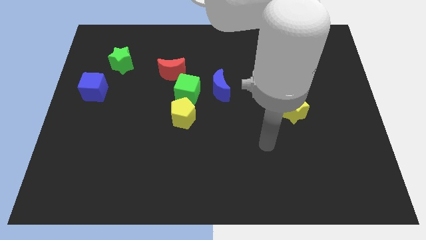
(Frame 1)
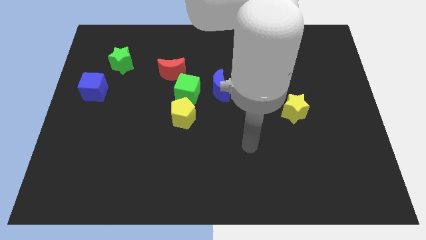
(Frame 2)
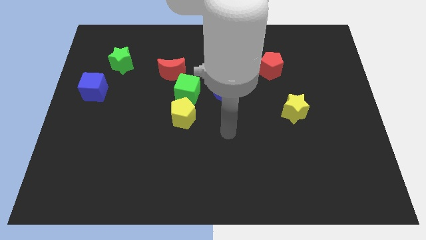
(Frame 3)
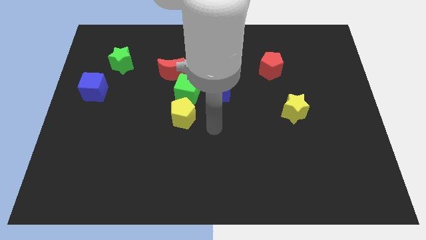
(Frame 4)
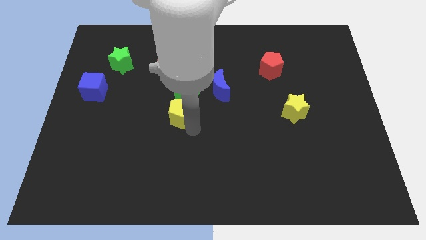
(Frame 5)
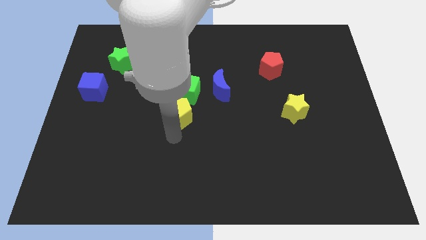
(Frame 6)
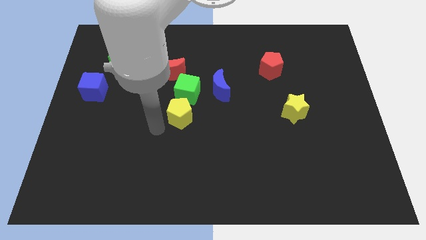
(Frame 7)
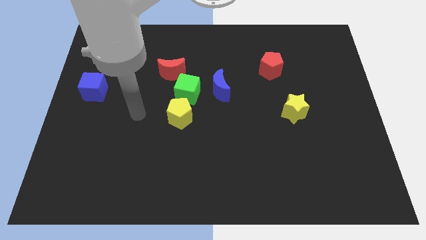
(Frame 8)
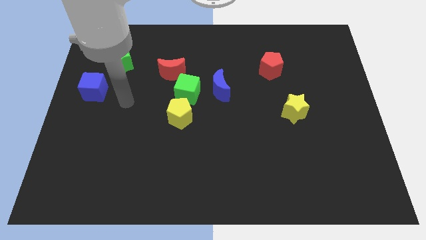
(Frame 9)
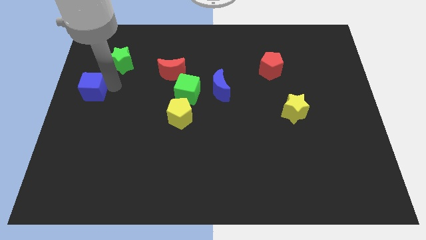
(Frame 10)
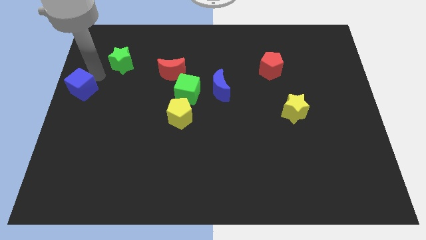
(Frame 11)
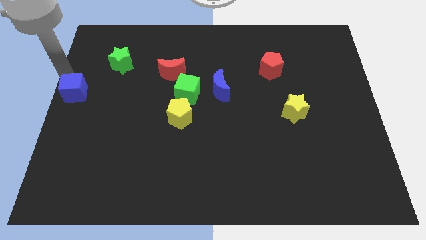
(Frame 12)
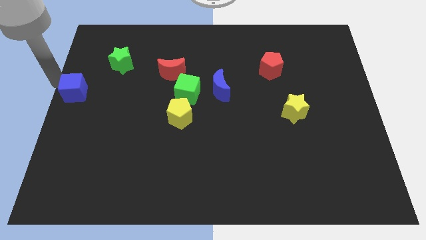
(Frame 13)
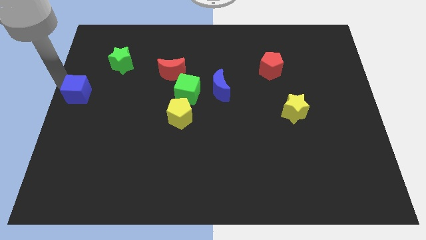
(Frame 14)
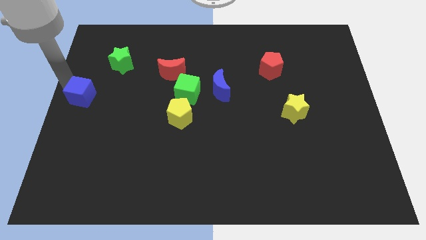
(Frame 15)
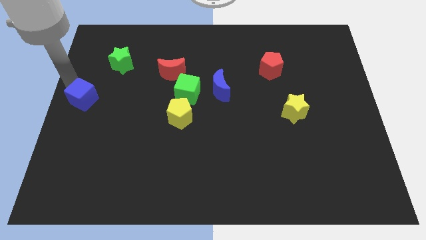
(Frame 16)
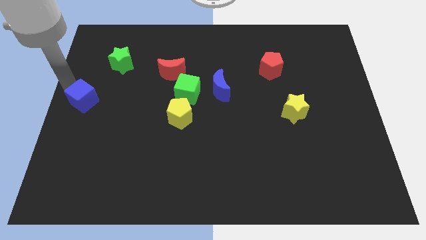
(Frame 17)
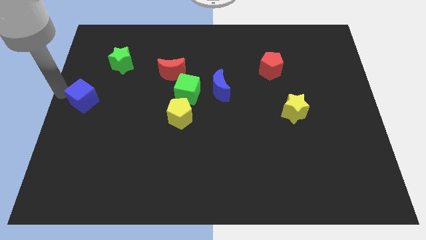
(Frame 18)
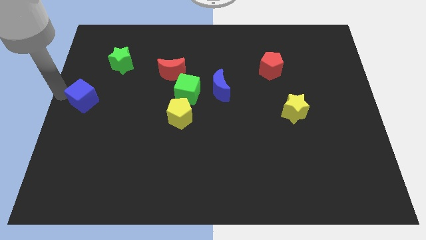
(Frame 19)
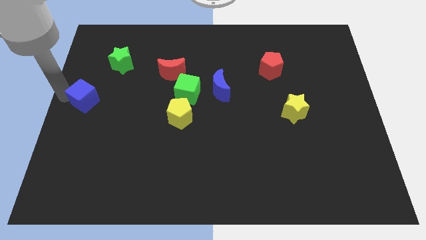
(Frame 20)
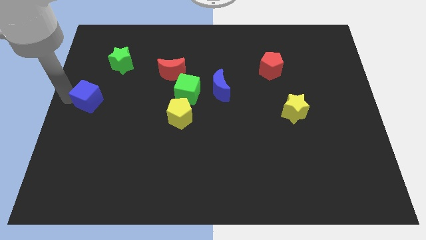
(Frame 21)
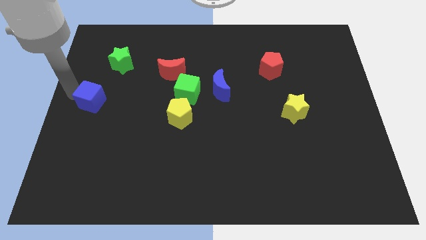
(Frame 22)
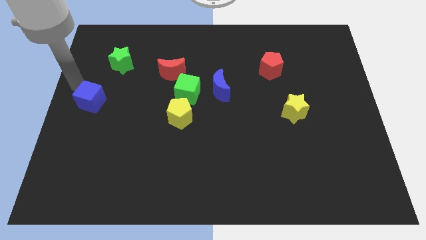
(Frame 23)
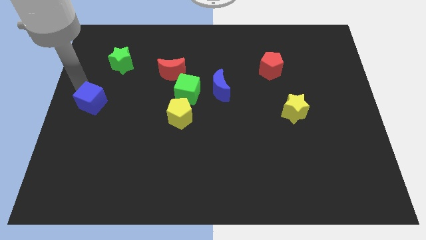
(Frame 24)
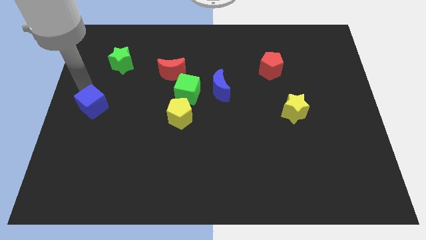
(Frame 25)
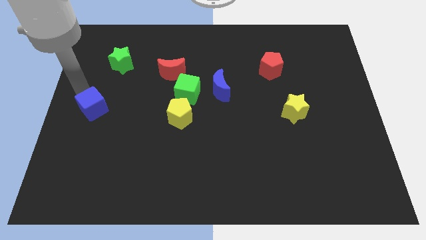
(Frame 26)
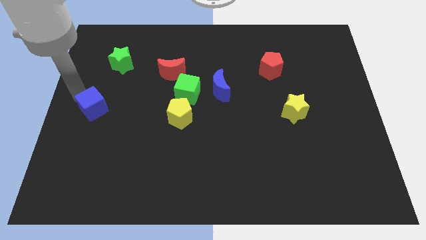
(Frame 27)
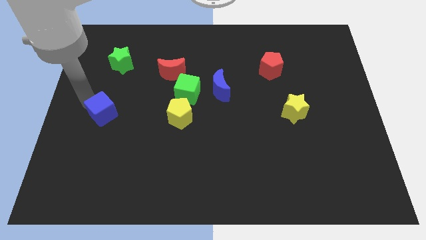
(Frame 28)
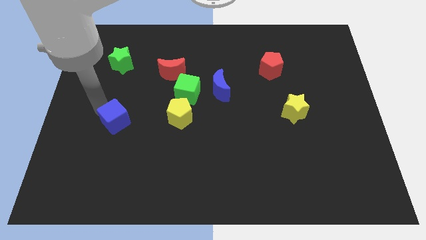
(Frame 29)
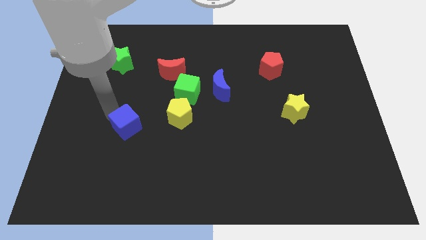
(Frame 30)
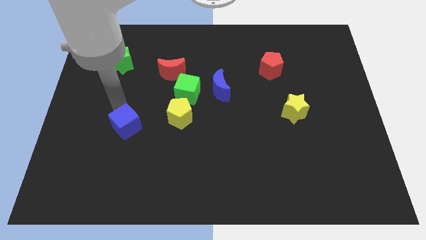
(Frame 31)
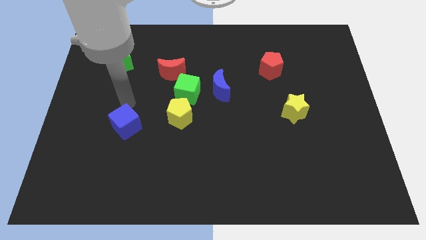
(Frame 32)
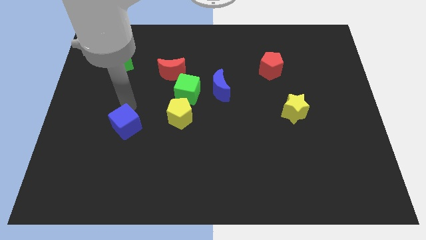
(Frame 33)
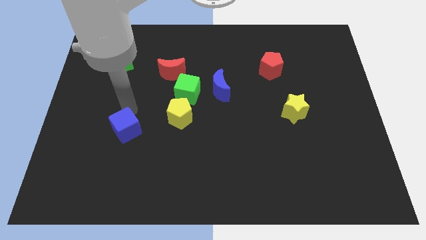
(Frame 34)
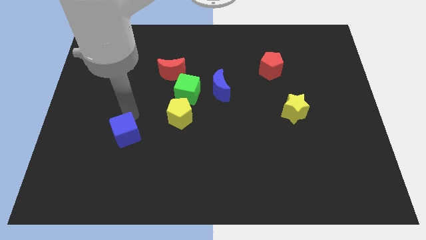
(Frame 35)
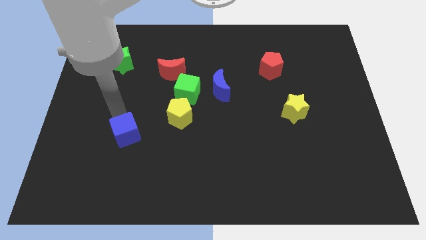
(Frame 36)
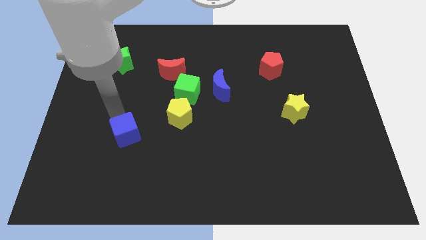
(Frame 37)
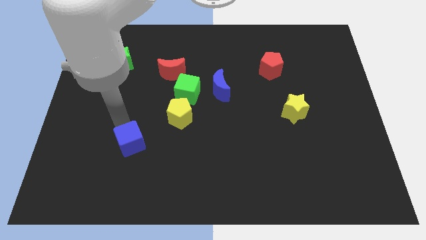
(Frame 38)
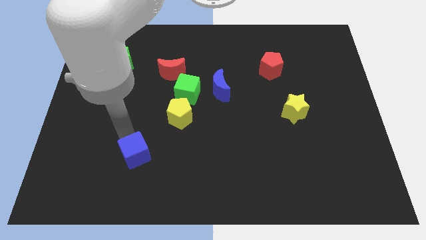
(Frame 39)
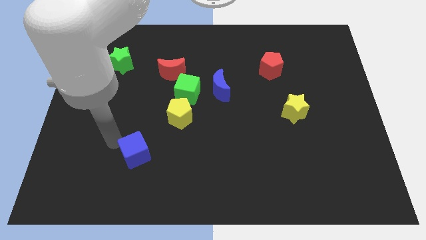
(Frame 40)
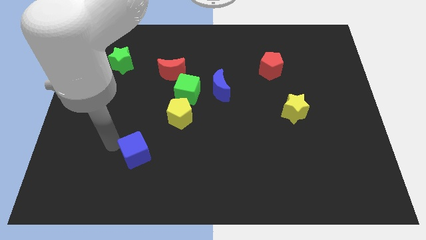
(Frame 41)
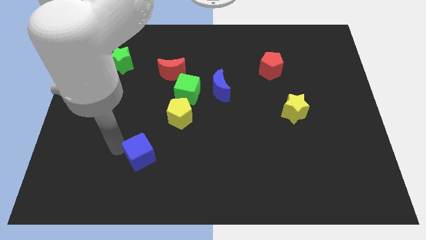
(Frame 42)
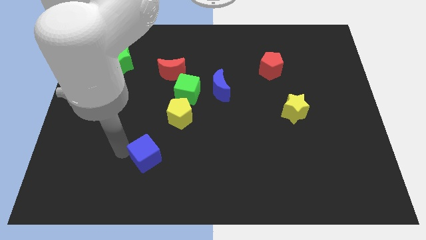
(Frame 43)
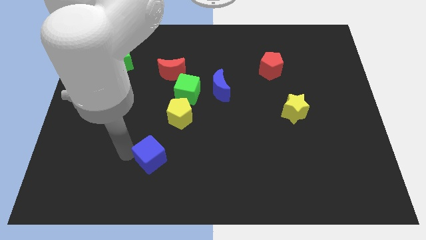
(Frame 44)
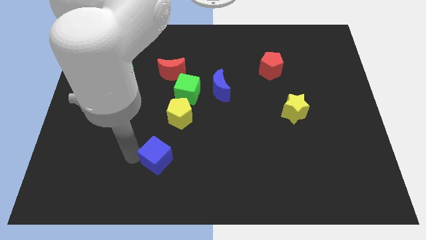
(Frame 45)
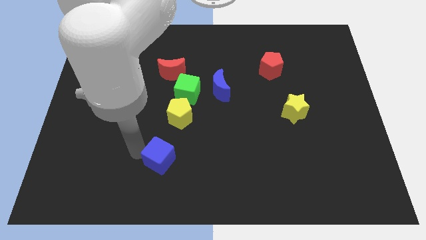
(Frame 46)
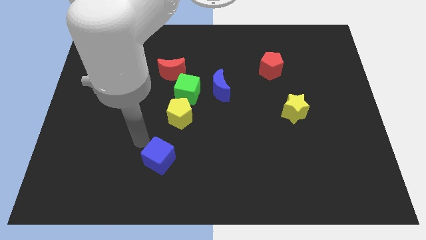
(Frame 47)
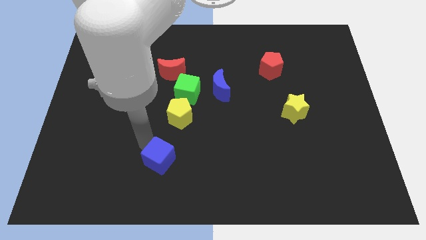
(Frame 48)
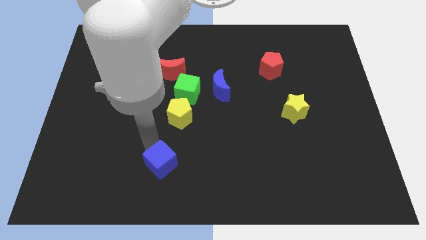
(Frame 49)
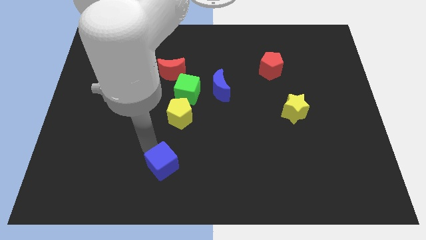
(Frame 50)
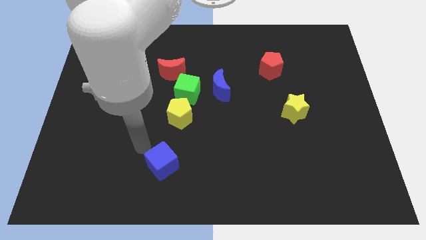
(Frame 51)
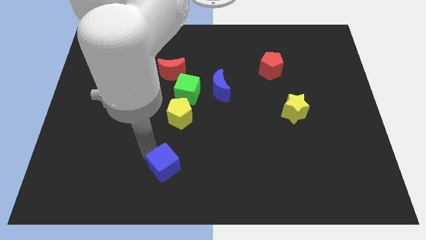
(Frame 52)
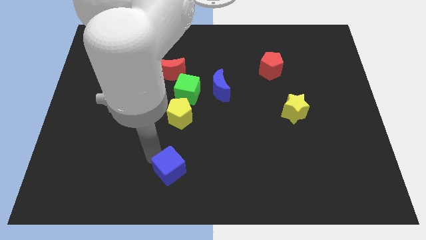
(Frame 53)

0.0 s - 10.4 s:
slide the blue cube to the bottom side

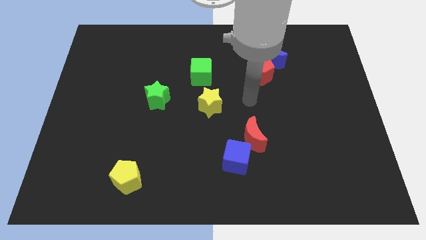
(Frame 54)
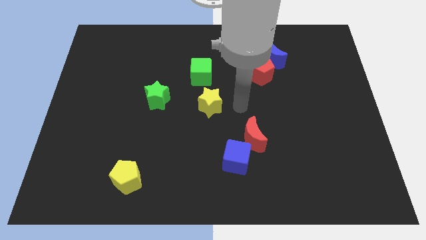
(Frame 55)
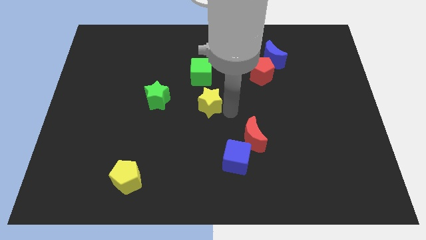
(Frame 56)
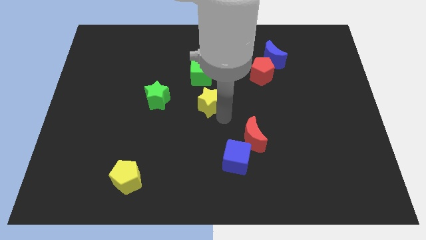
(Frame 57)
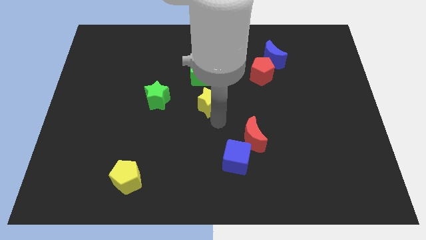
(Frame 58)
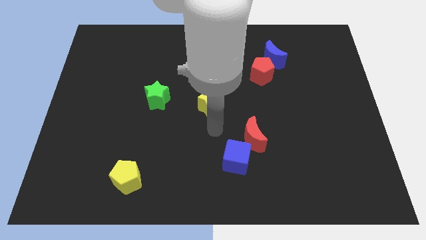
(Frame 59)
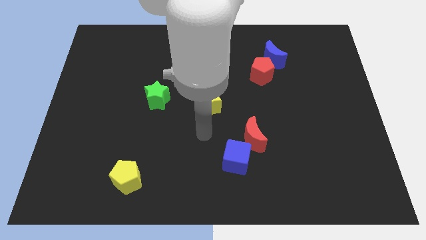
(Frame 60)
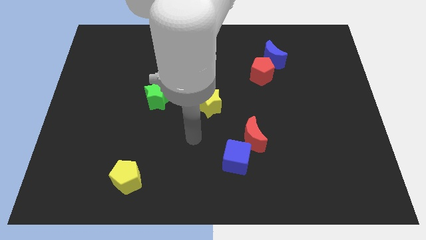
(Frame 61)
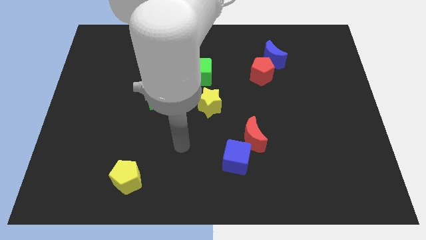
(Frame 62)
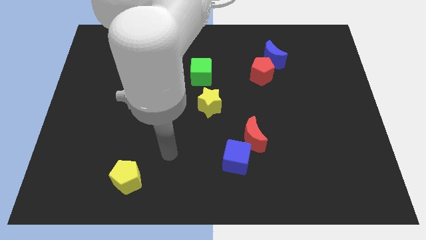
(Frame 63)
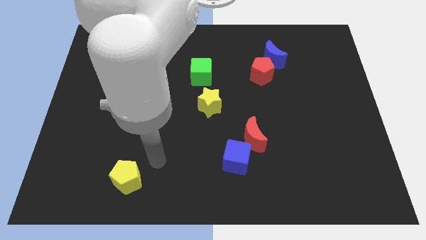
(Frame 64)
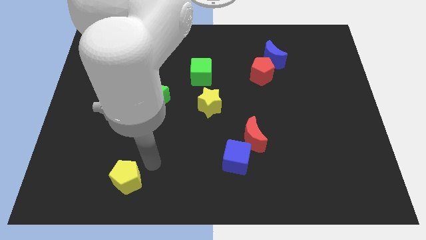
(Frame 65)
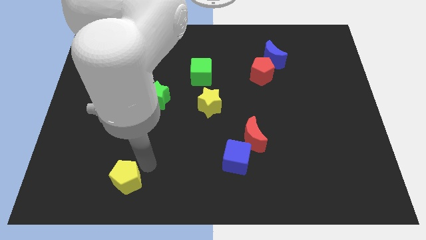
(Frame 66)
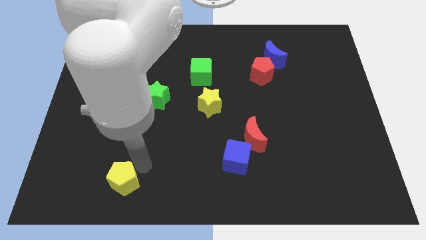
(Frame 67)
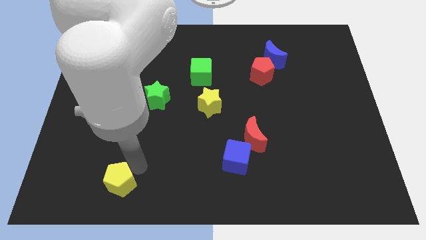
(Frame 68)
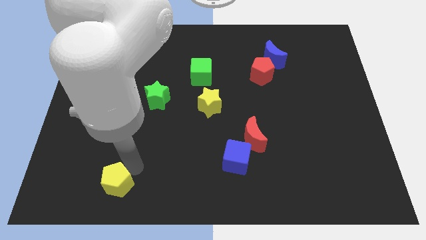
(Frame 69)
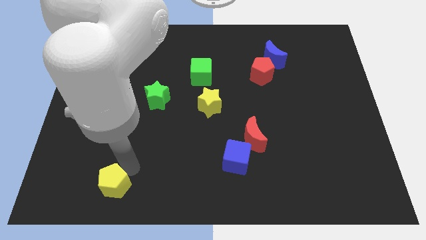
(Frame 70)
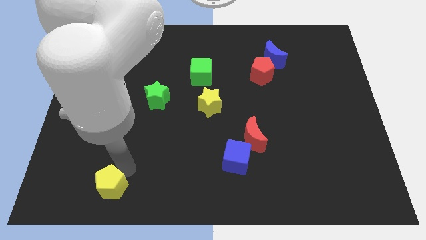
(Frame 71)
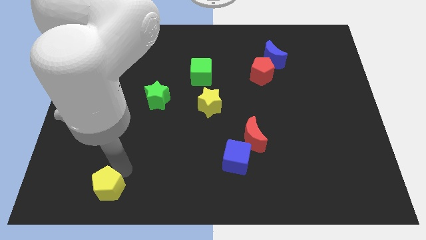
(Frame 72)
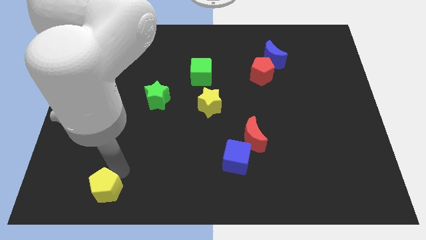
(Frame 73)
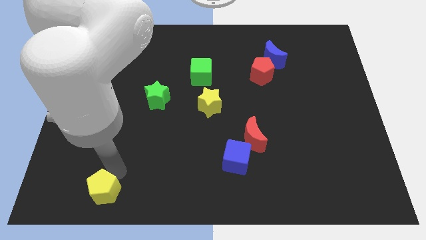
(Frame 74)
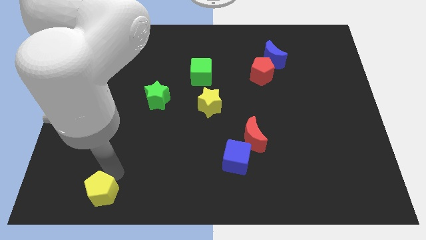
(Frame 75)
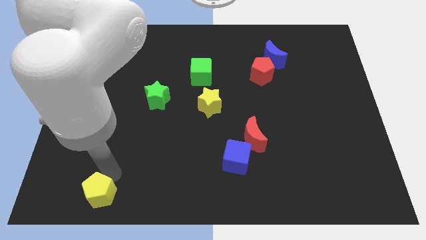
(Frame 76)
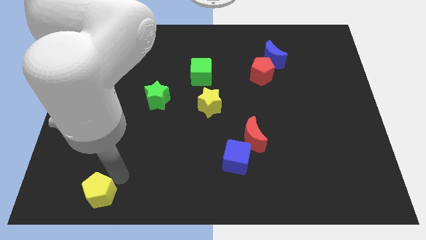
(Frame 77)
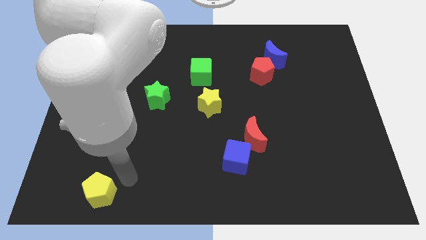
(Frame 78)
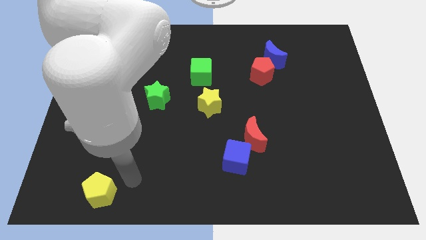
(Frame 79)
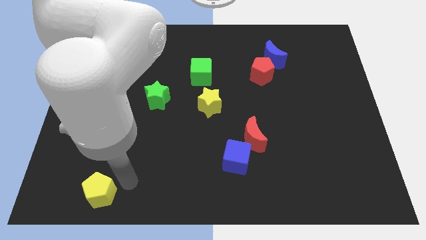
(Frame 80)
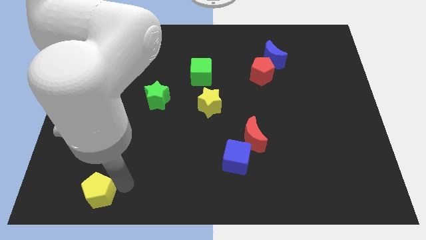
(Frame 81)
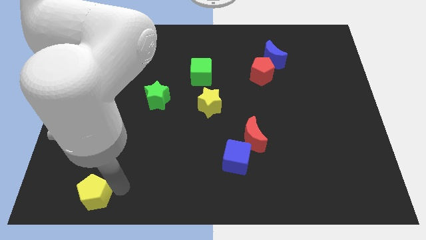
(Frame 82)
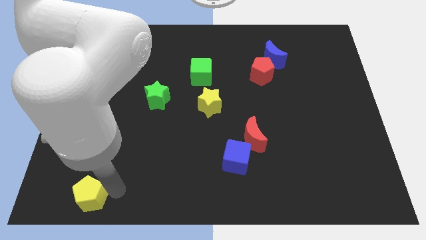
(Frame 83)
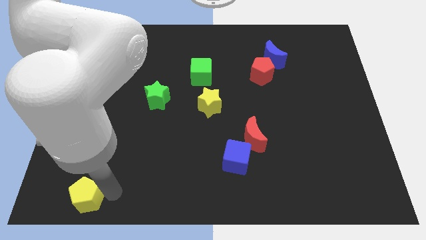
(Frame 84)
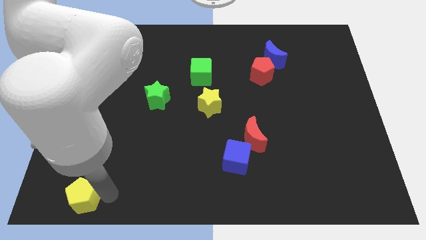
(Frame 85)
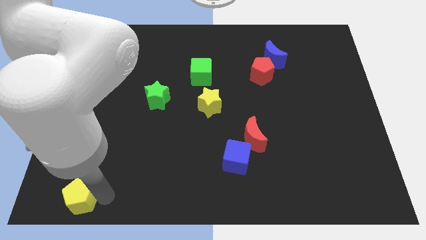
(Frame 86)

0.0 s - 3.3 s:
push the yellow pentagon to the bottom left corner
